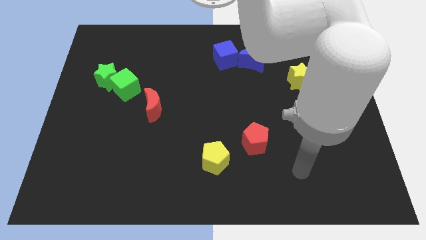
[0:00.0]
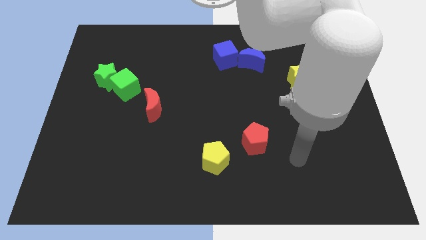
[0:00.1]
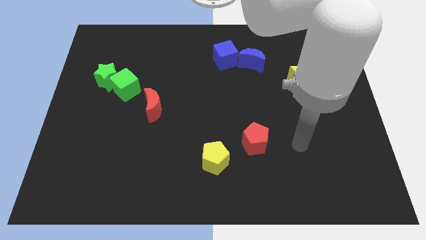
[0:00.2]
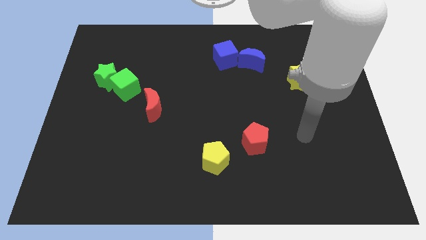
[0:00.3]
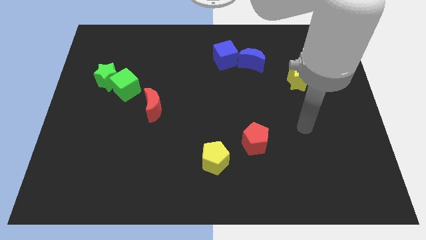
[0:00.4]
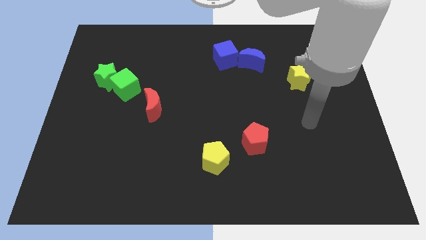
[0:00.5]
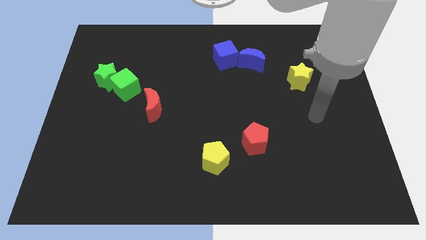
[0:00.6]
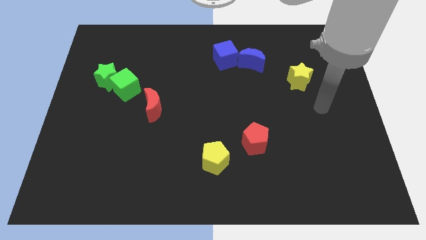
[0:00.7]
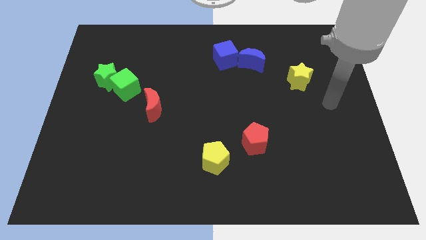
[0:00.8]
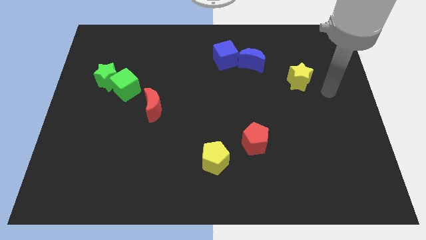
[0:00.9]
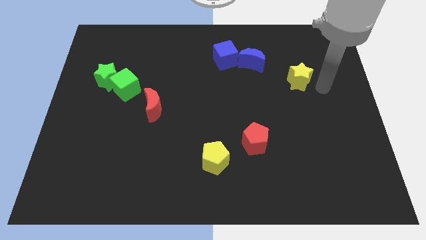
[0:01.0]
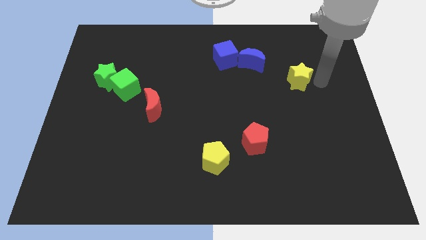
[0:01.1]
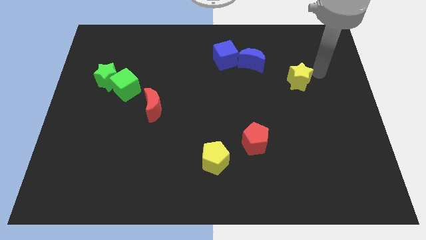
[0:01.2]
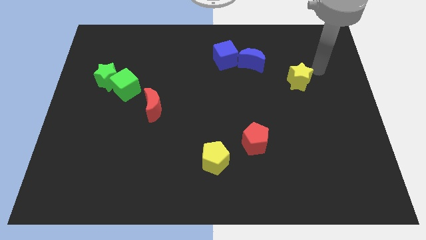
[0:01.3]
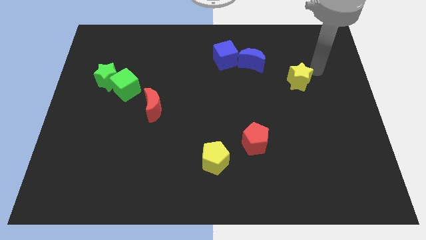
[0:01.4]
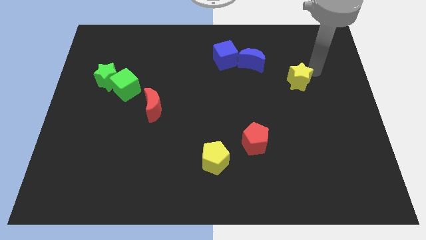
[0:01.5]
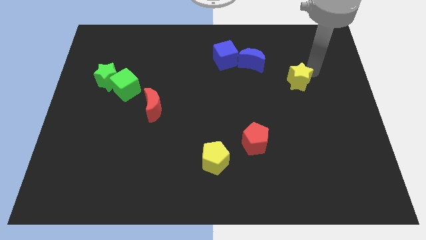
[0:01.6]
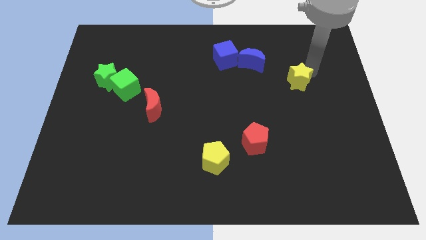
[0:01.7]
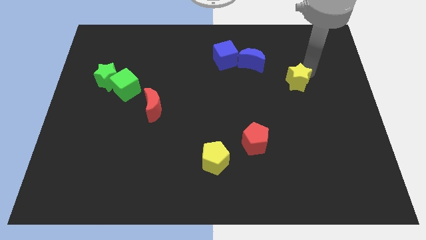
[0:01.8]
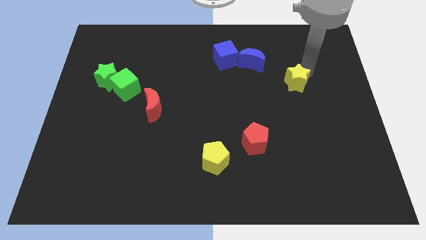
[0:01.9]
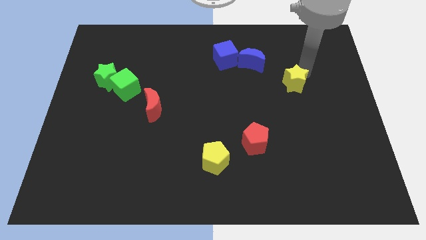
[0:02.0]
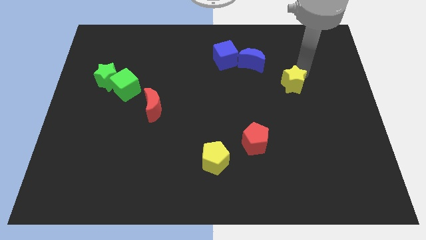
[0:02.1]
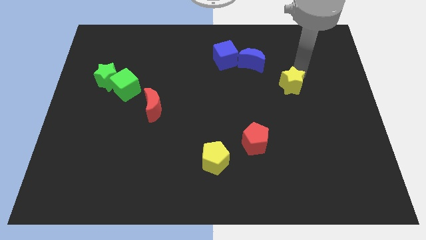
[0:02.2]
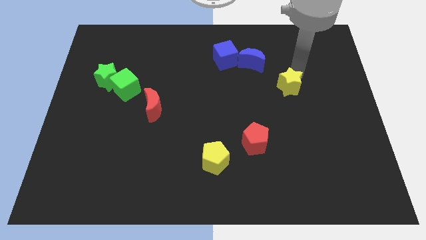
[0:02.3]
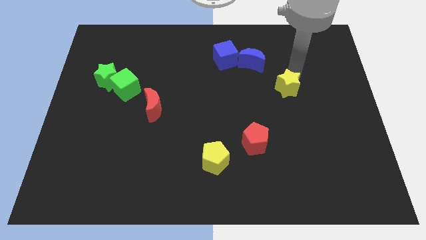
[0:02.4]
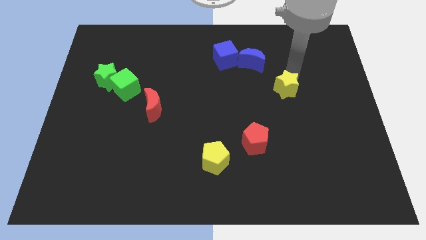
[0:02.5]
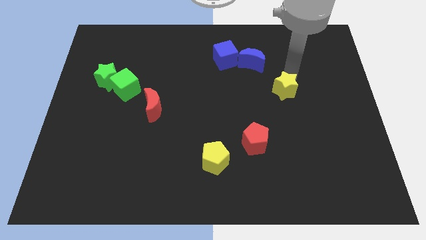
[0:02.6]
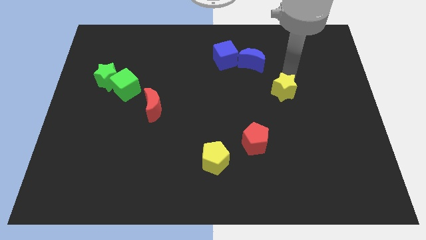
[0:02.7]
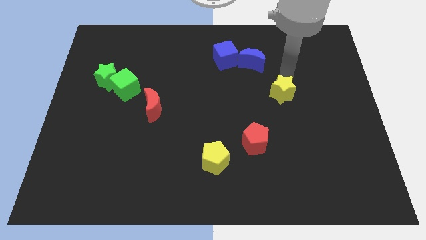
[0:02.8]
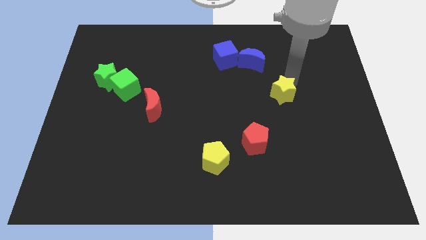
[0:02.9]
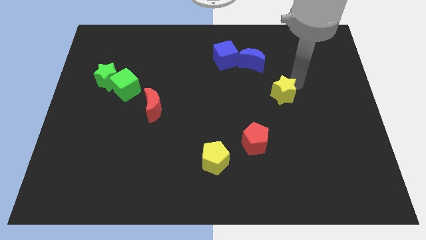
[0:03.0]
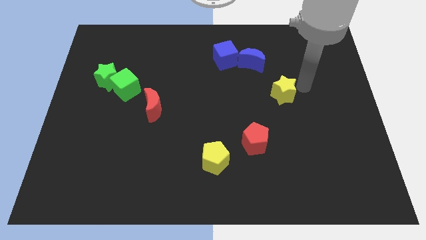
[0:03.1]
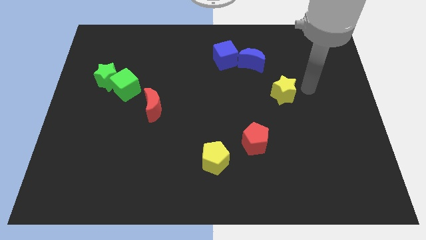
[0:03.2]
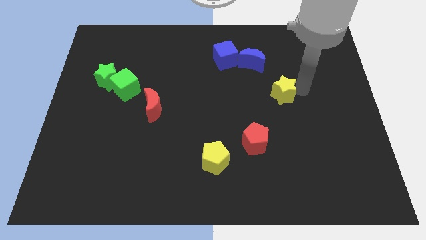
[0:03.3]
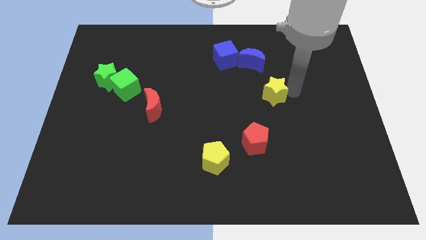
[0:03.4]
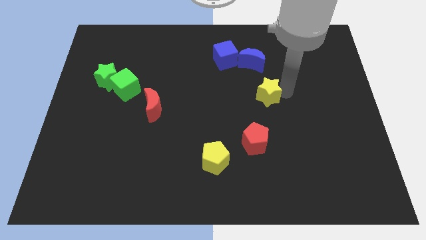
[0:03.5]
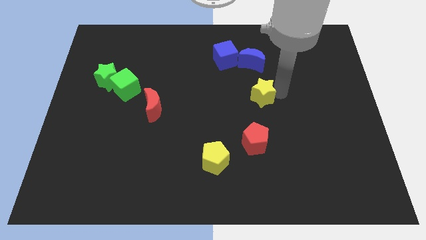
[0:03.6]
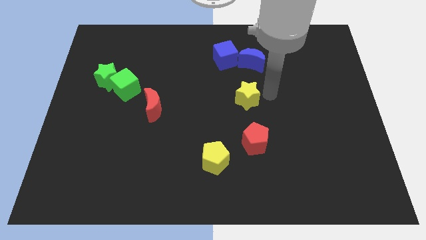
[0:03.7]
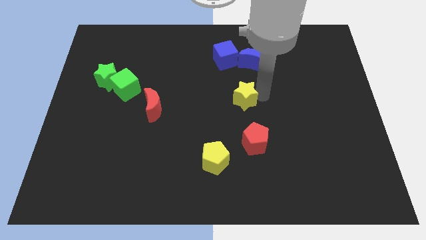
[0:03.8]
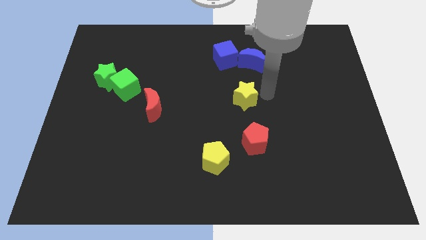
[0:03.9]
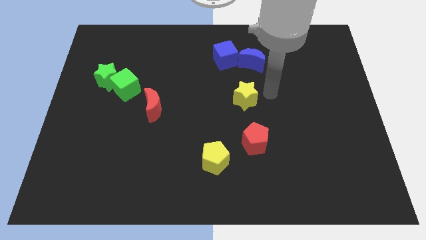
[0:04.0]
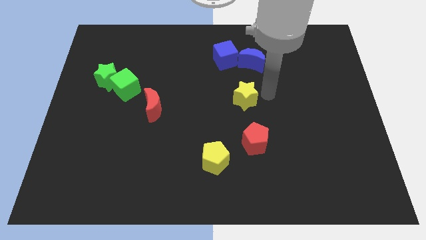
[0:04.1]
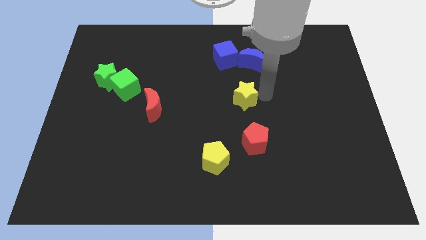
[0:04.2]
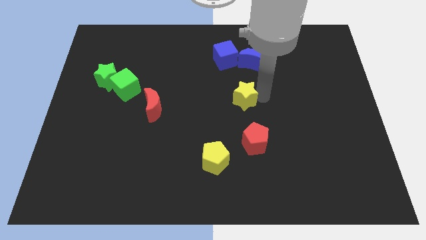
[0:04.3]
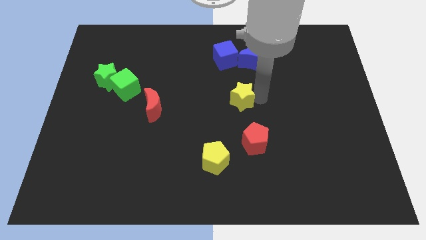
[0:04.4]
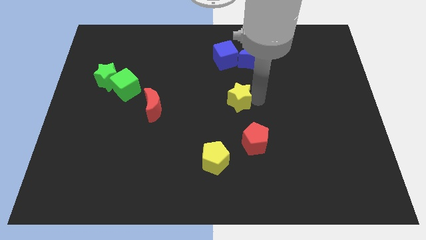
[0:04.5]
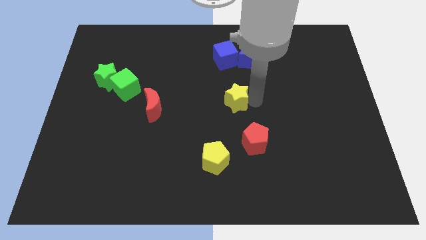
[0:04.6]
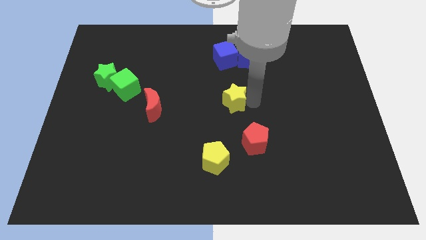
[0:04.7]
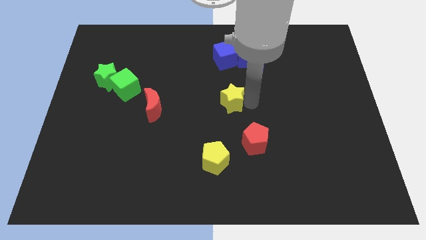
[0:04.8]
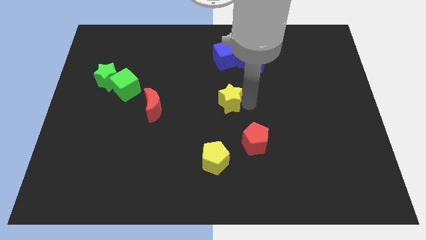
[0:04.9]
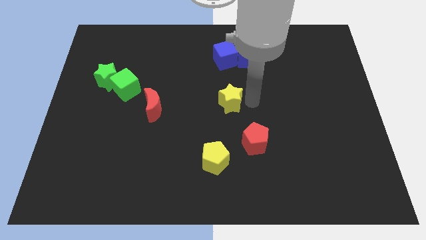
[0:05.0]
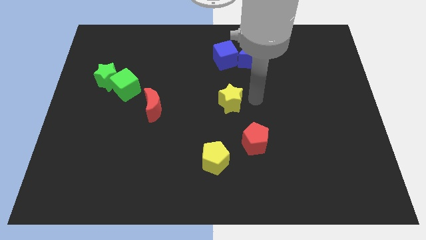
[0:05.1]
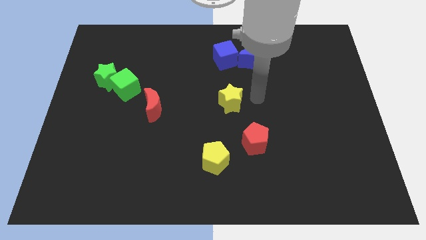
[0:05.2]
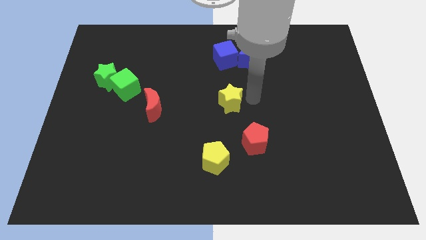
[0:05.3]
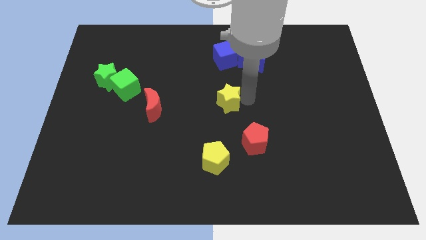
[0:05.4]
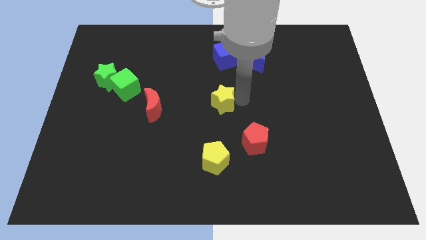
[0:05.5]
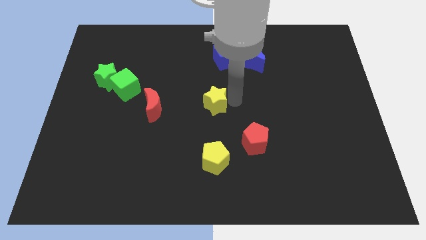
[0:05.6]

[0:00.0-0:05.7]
put the yellow star to the right of the red moon
